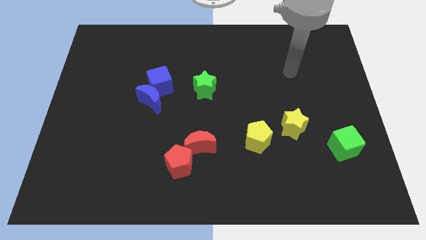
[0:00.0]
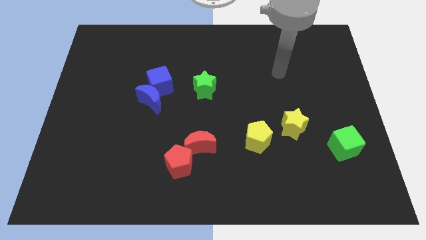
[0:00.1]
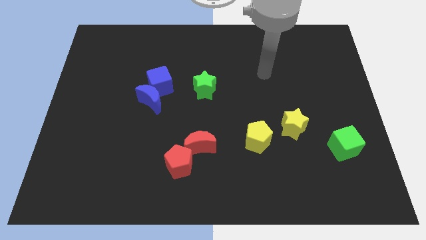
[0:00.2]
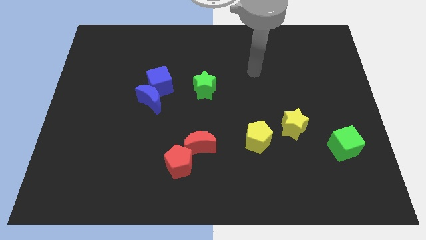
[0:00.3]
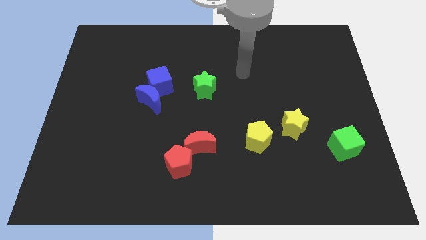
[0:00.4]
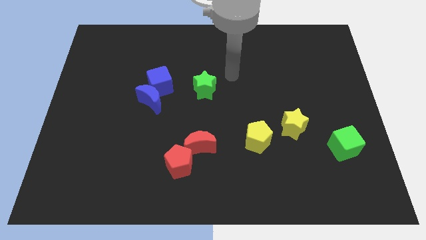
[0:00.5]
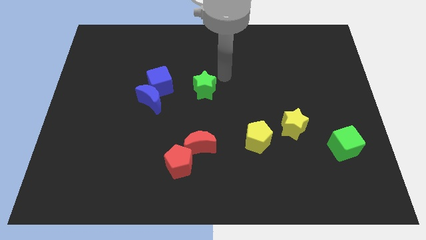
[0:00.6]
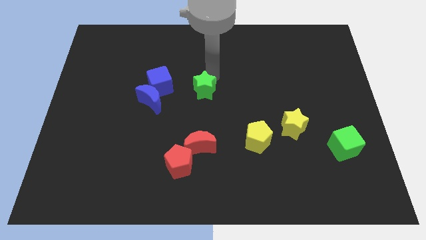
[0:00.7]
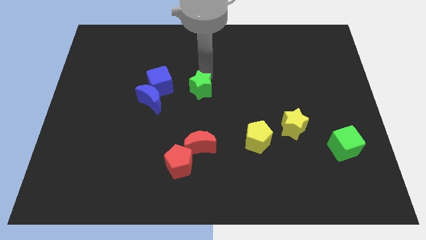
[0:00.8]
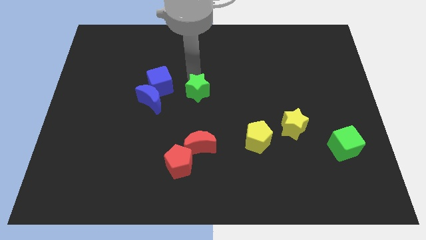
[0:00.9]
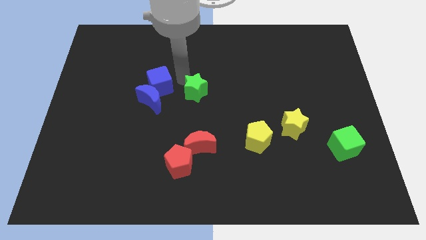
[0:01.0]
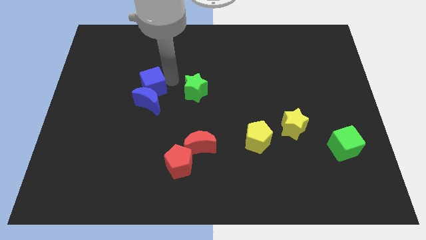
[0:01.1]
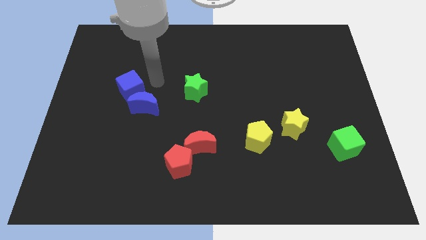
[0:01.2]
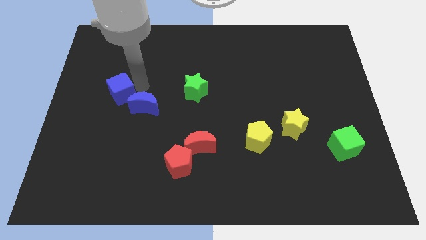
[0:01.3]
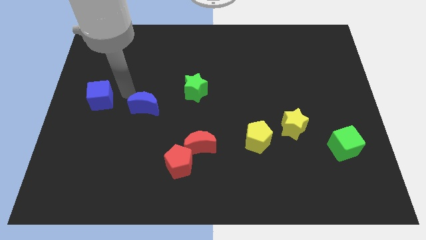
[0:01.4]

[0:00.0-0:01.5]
pull the blue moon apart from the blue cube

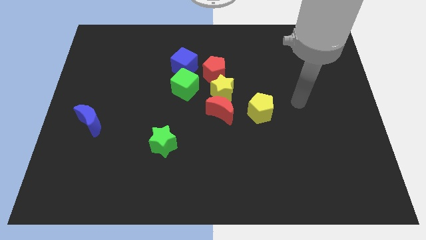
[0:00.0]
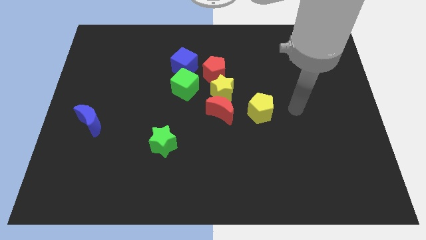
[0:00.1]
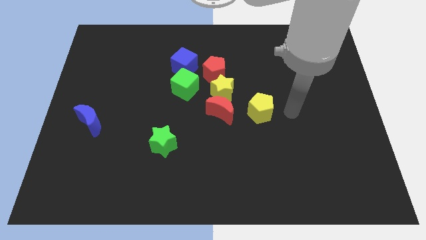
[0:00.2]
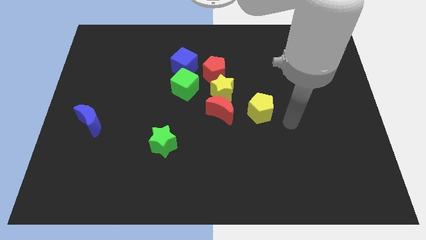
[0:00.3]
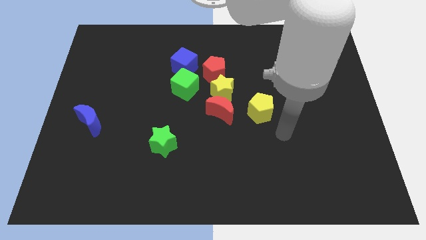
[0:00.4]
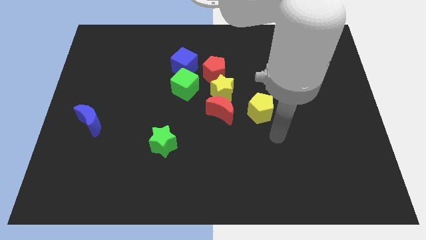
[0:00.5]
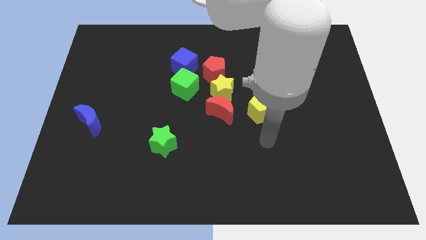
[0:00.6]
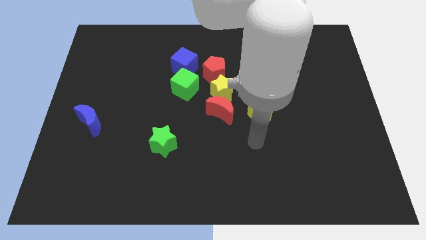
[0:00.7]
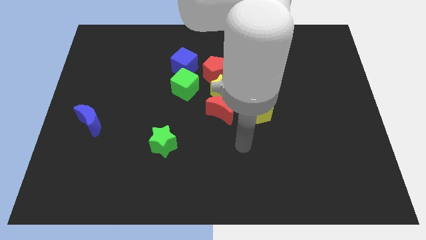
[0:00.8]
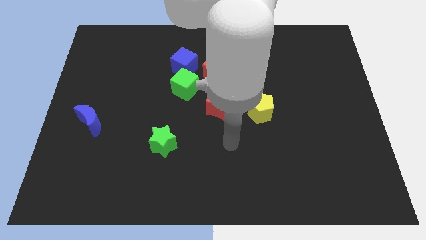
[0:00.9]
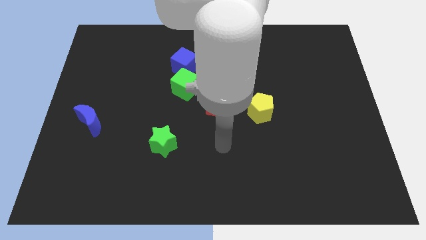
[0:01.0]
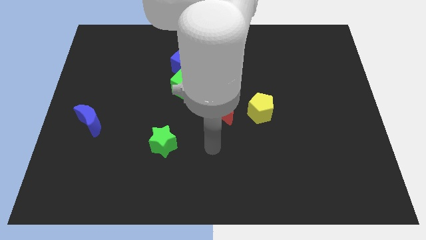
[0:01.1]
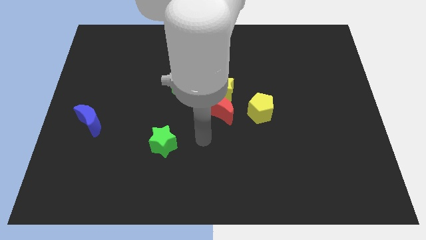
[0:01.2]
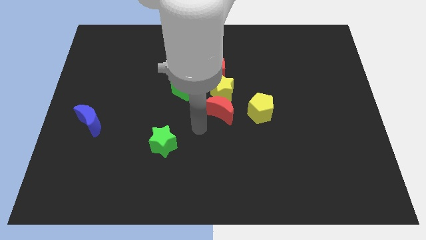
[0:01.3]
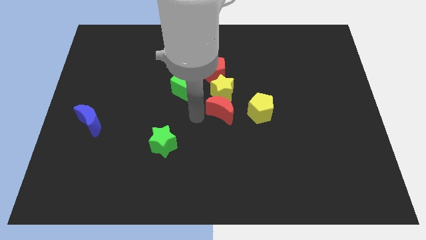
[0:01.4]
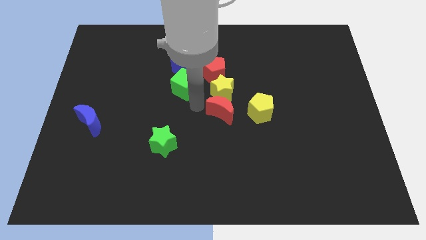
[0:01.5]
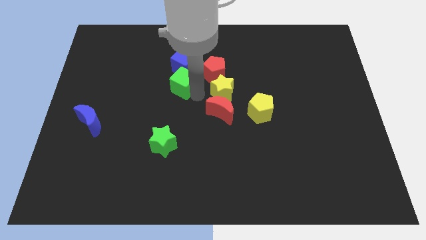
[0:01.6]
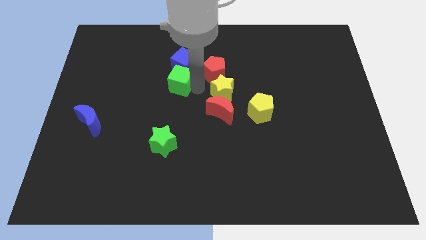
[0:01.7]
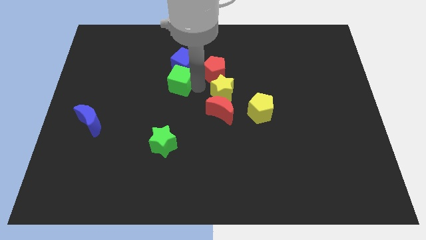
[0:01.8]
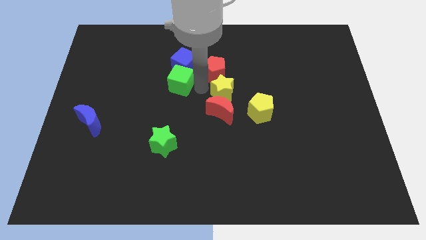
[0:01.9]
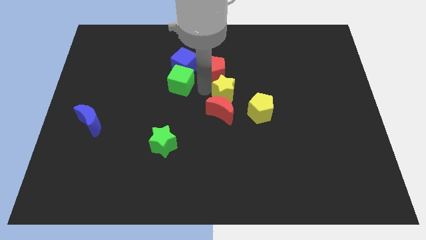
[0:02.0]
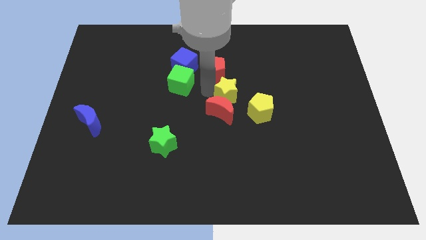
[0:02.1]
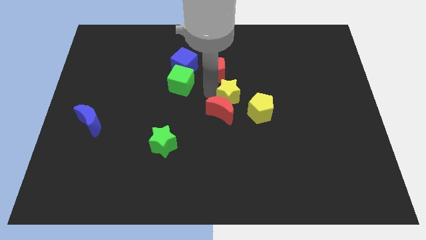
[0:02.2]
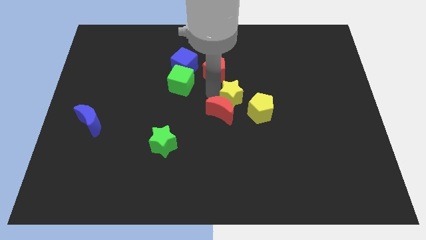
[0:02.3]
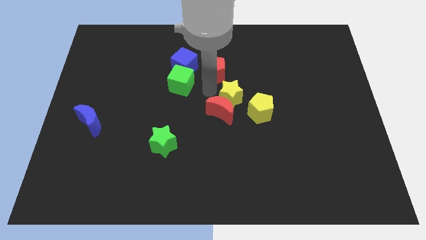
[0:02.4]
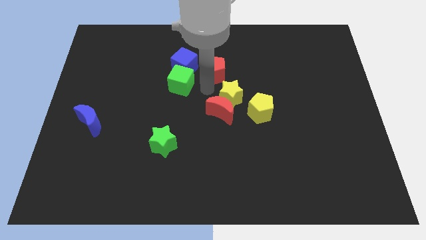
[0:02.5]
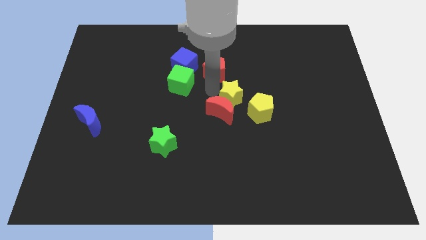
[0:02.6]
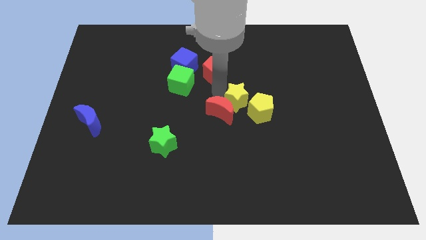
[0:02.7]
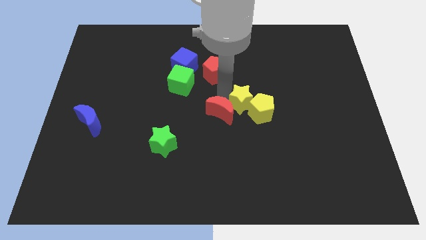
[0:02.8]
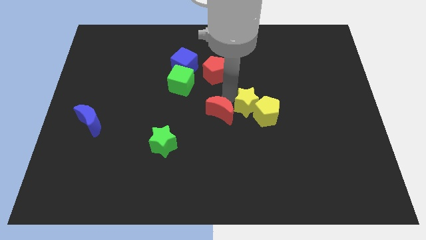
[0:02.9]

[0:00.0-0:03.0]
separate the yellow star from the red moon, red pentagon, and green cube

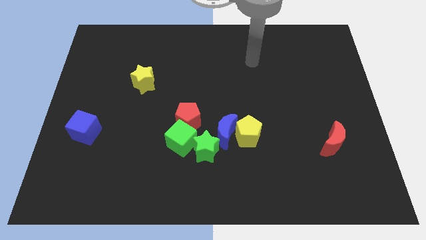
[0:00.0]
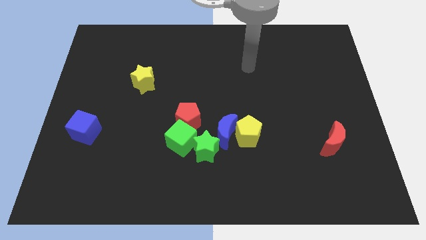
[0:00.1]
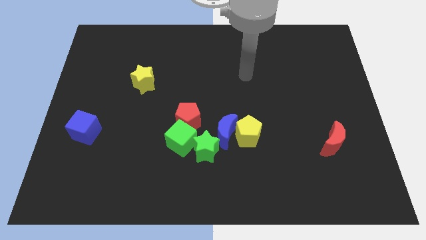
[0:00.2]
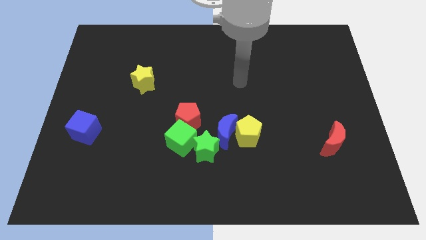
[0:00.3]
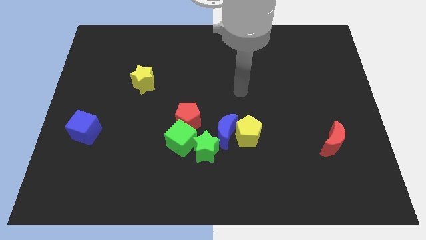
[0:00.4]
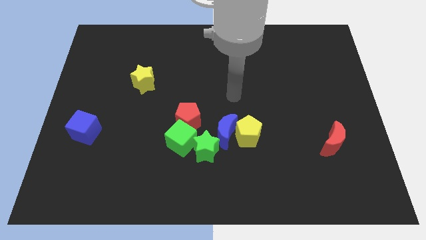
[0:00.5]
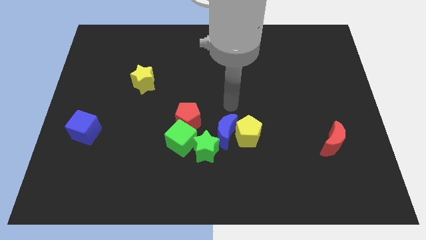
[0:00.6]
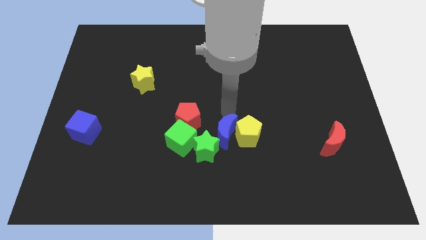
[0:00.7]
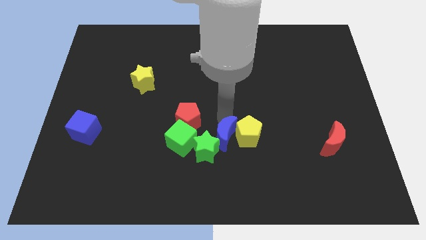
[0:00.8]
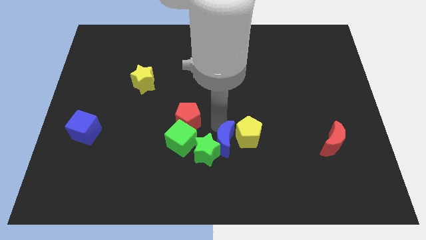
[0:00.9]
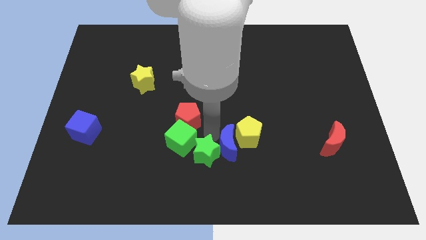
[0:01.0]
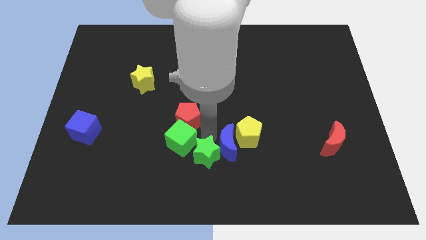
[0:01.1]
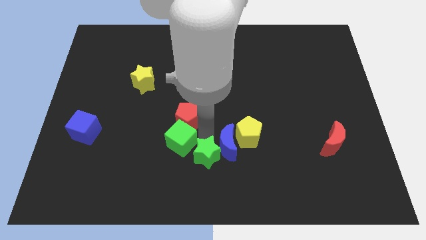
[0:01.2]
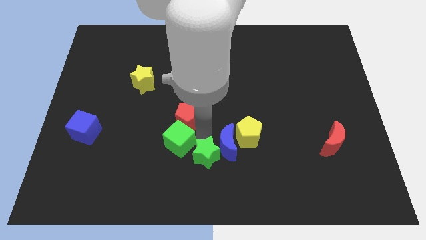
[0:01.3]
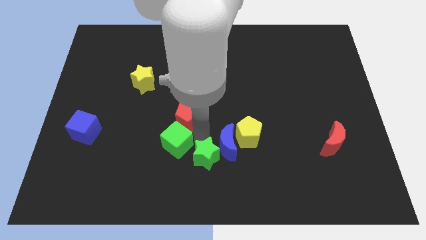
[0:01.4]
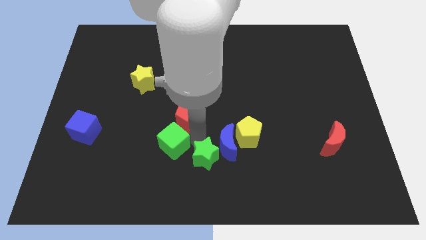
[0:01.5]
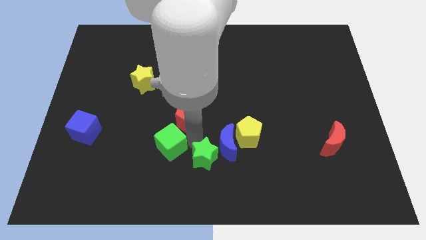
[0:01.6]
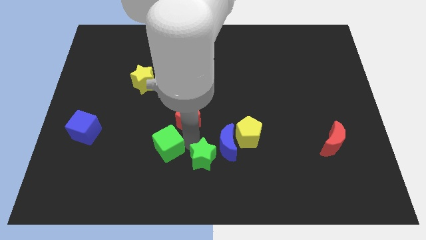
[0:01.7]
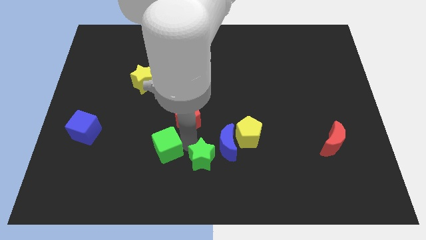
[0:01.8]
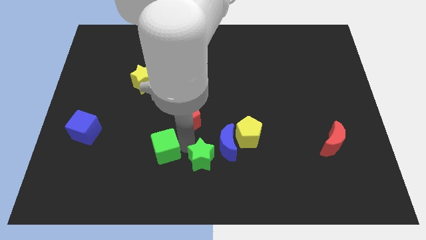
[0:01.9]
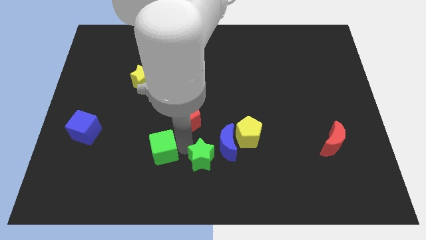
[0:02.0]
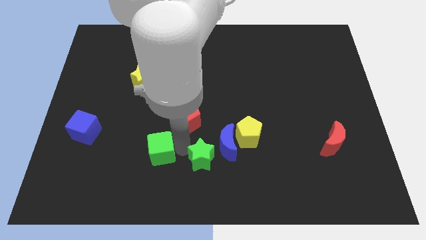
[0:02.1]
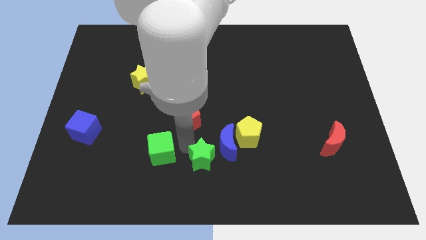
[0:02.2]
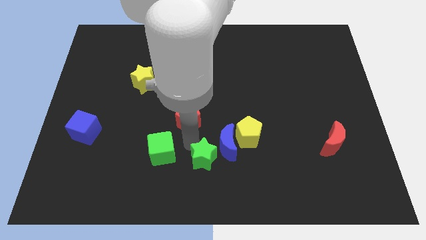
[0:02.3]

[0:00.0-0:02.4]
move the green cube away from the clump

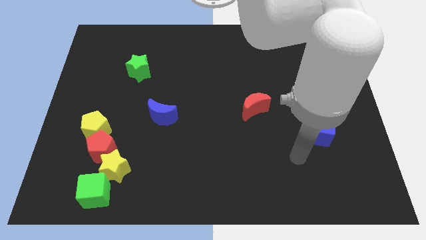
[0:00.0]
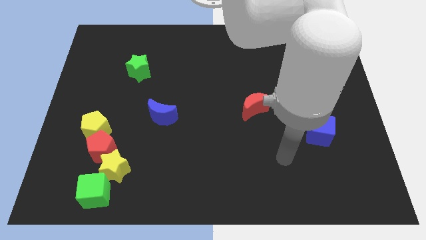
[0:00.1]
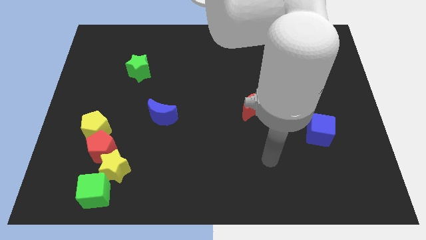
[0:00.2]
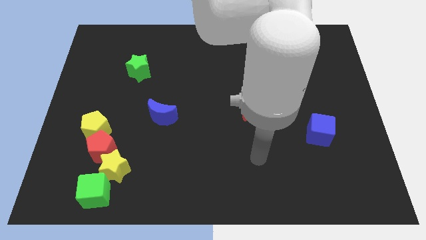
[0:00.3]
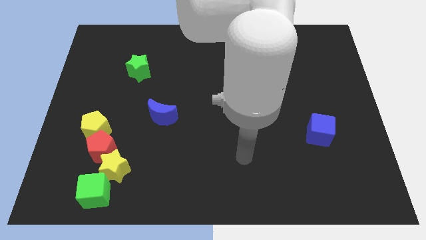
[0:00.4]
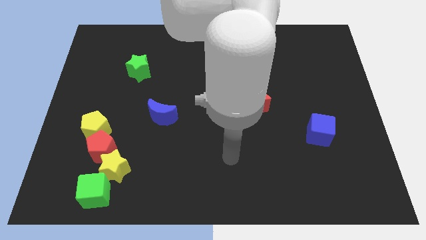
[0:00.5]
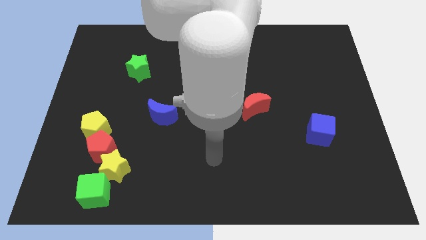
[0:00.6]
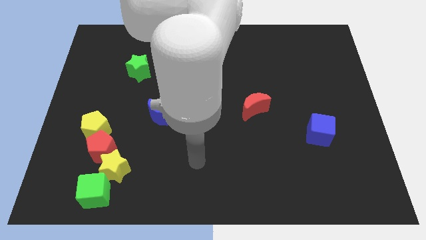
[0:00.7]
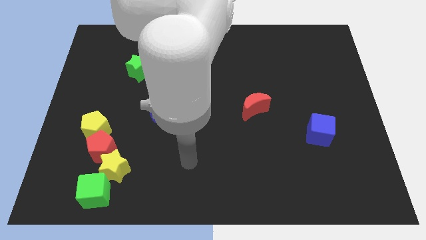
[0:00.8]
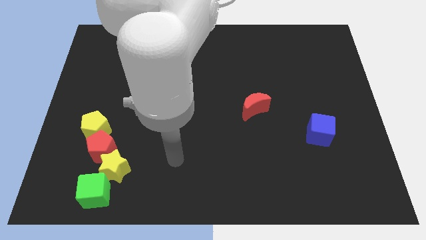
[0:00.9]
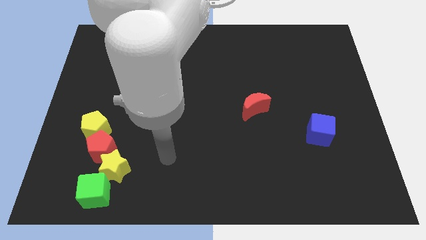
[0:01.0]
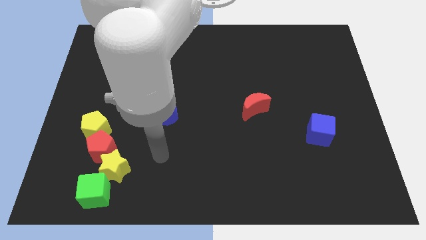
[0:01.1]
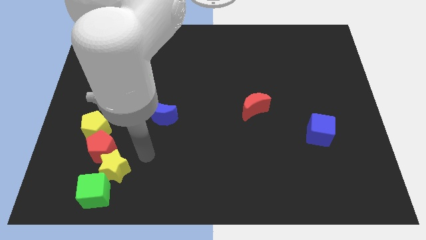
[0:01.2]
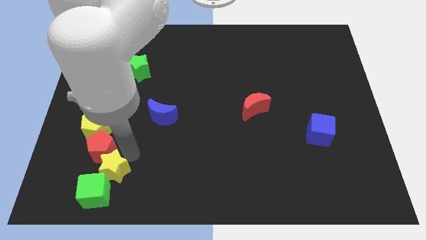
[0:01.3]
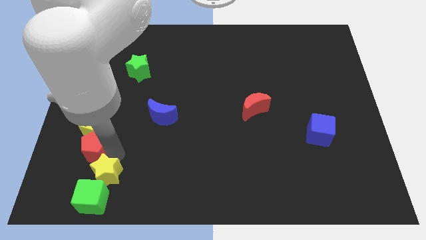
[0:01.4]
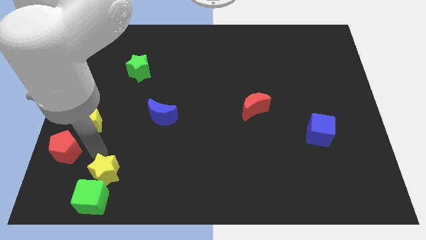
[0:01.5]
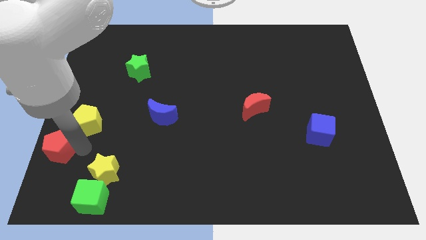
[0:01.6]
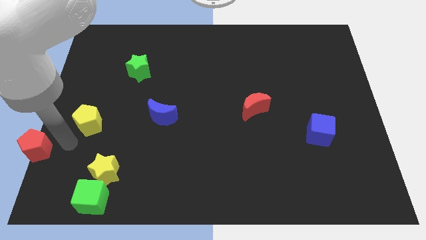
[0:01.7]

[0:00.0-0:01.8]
separate the yellow pentagon from the red pentagon

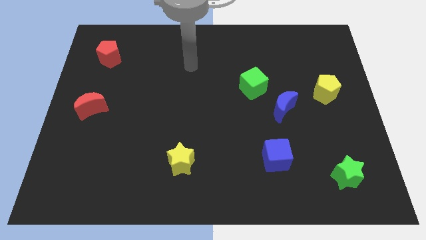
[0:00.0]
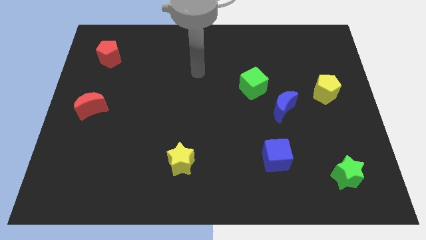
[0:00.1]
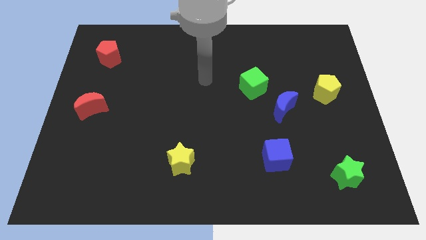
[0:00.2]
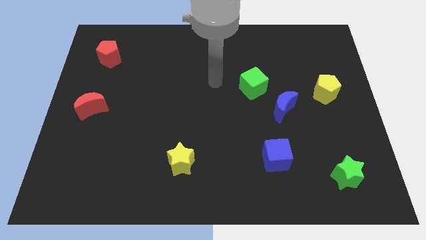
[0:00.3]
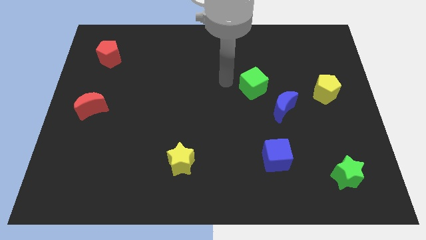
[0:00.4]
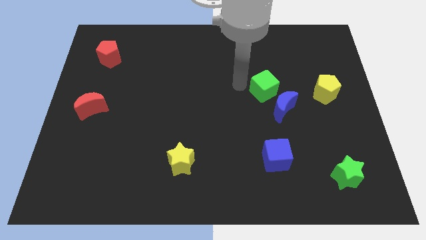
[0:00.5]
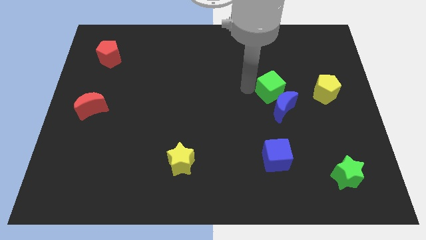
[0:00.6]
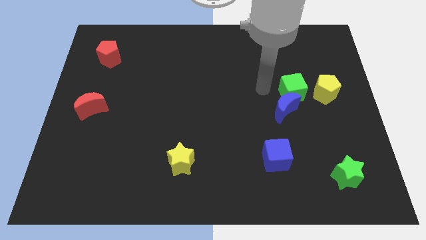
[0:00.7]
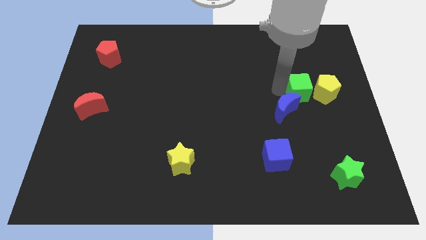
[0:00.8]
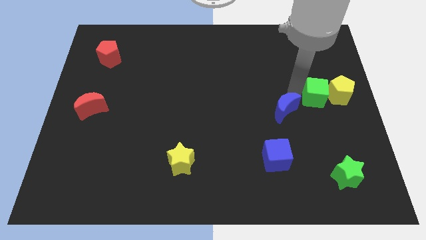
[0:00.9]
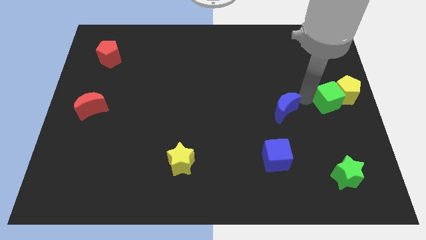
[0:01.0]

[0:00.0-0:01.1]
pull the blue moon apart from the green cube
